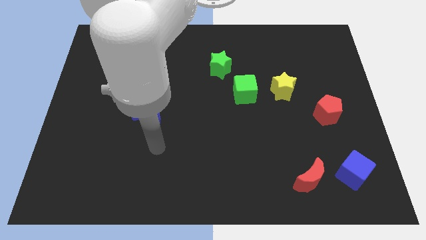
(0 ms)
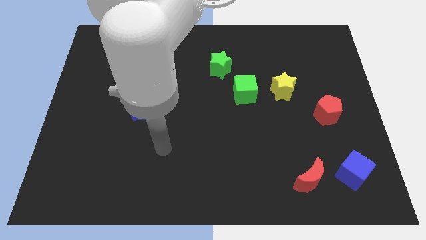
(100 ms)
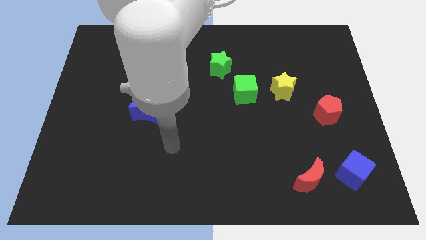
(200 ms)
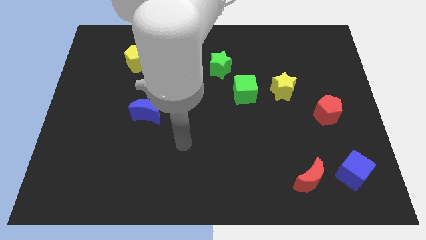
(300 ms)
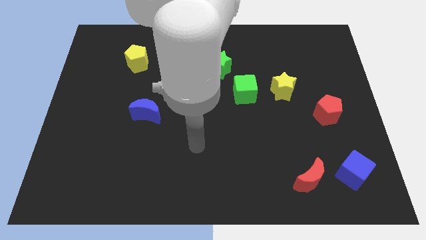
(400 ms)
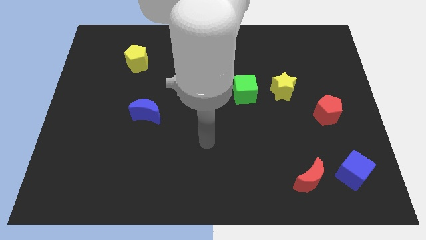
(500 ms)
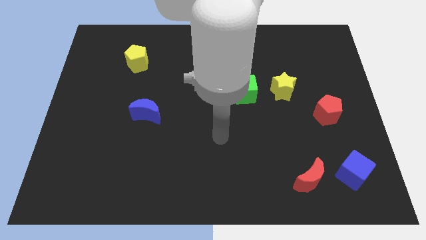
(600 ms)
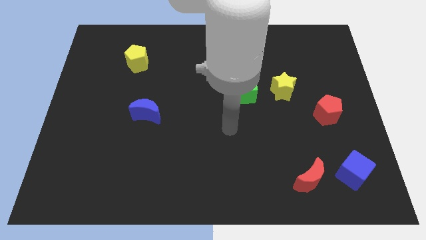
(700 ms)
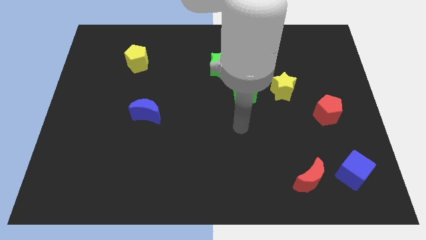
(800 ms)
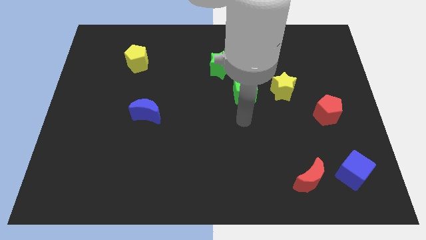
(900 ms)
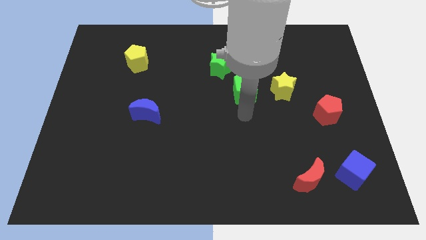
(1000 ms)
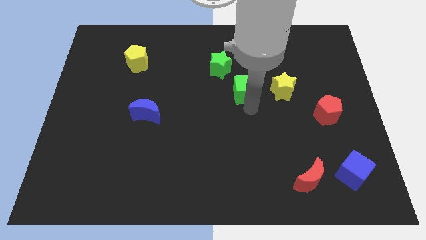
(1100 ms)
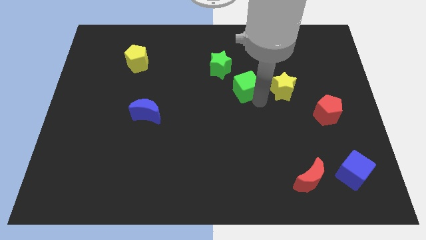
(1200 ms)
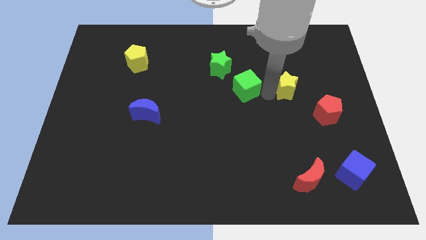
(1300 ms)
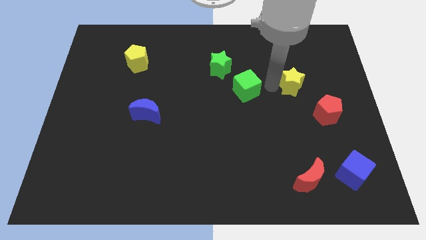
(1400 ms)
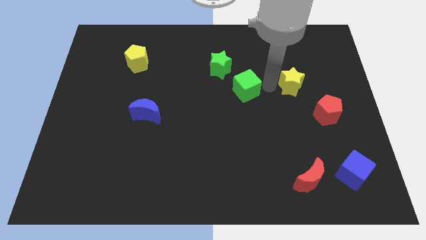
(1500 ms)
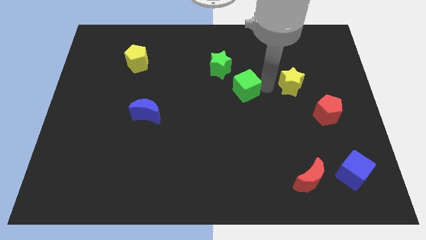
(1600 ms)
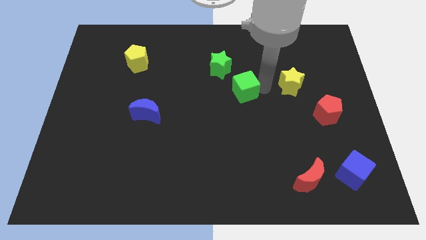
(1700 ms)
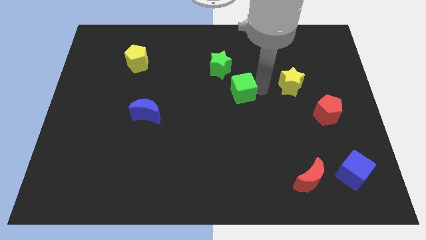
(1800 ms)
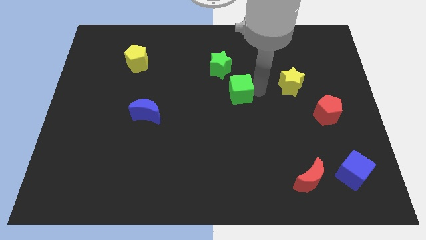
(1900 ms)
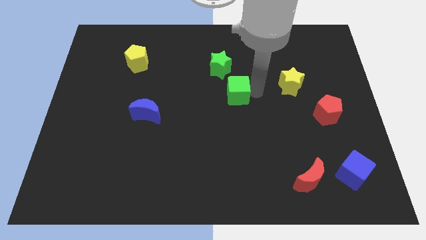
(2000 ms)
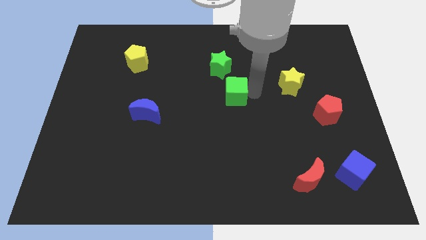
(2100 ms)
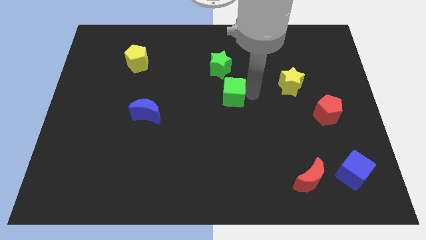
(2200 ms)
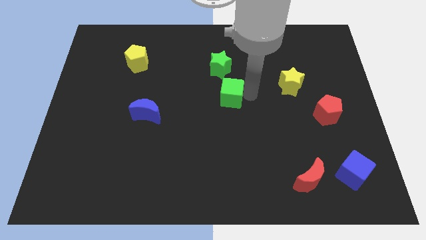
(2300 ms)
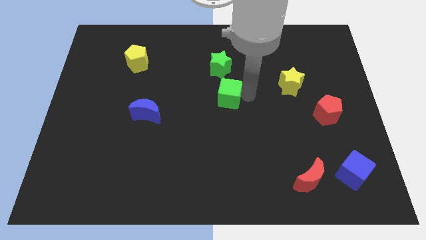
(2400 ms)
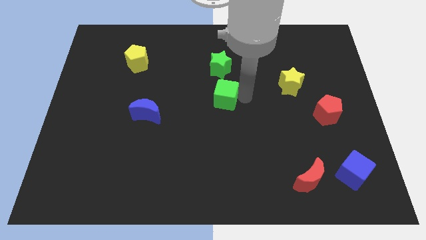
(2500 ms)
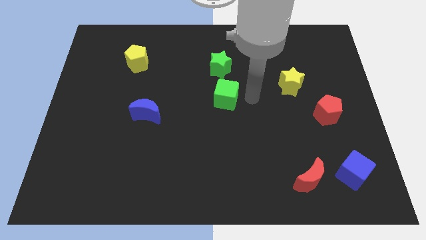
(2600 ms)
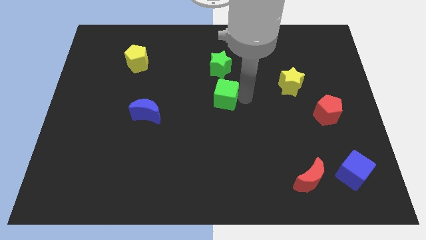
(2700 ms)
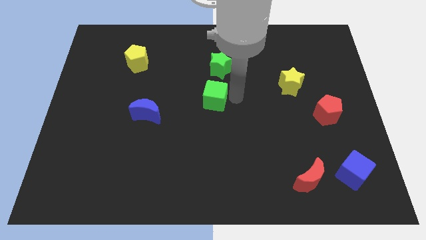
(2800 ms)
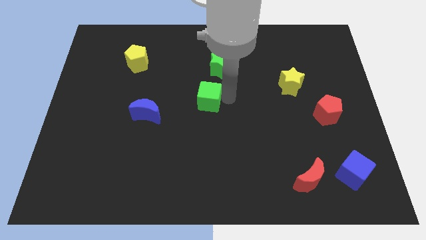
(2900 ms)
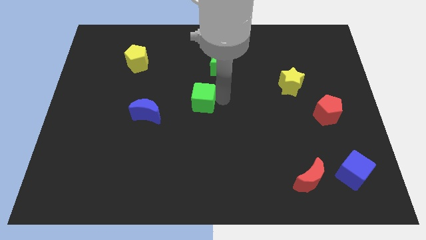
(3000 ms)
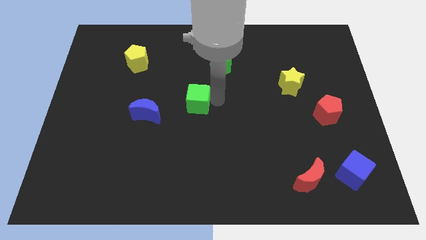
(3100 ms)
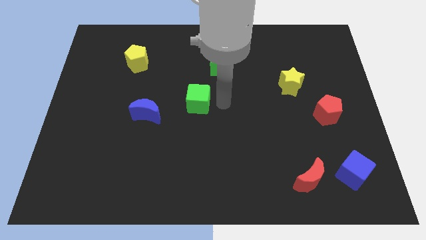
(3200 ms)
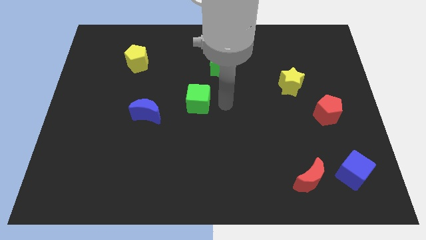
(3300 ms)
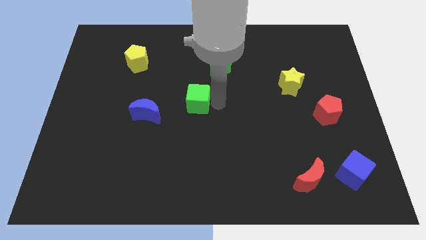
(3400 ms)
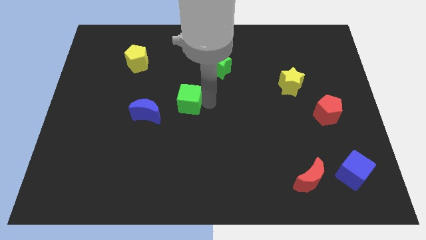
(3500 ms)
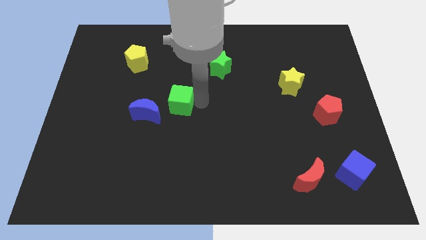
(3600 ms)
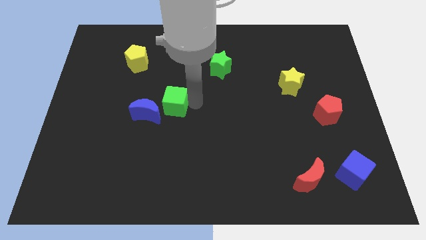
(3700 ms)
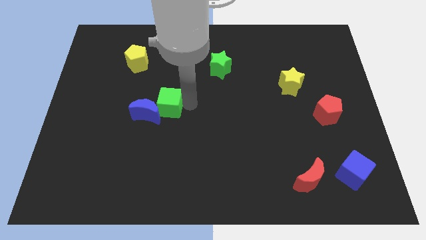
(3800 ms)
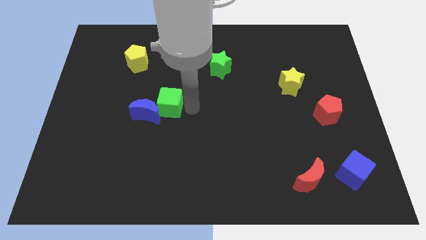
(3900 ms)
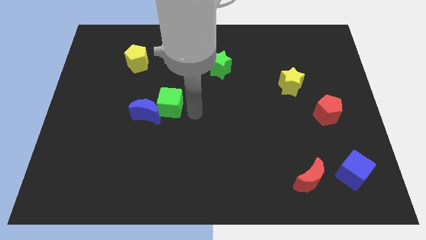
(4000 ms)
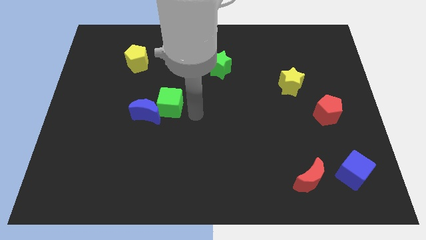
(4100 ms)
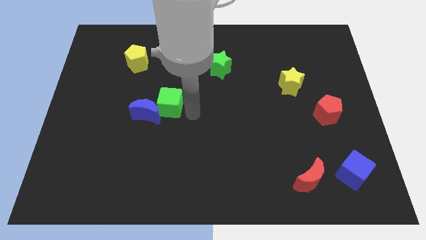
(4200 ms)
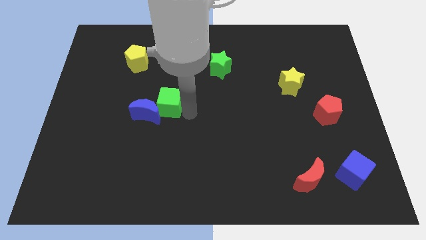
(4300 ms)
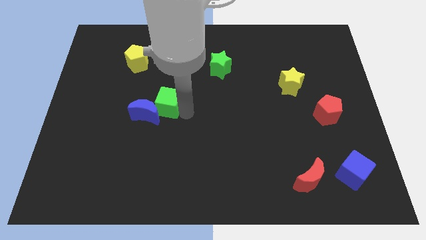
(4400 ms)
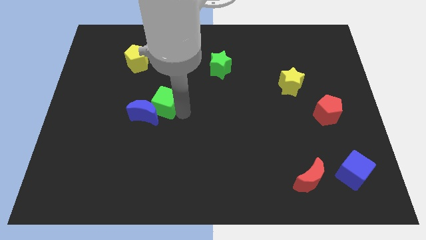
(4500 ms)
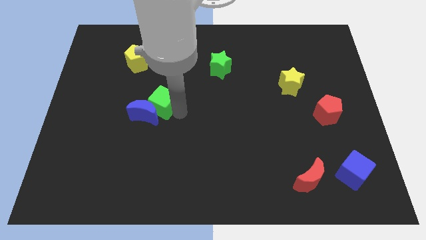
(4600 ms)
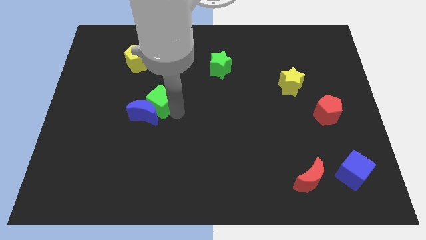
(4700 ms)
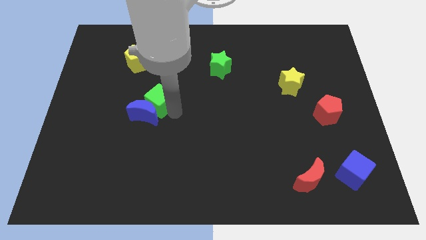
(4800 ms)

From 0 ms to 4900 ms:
move the green cube left

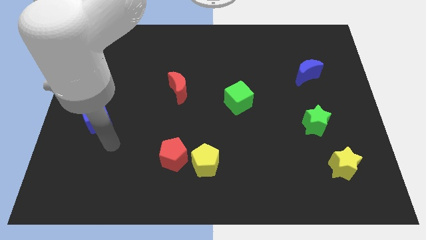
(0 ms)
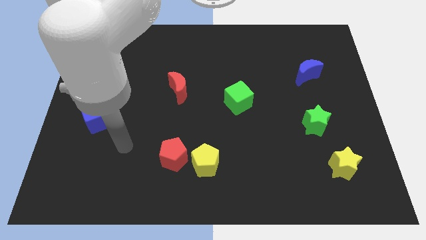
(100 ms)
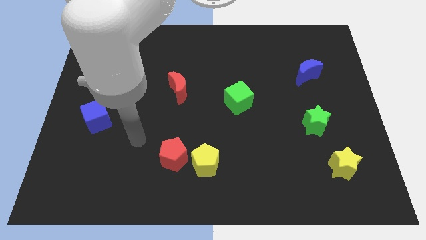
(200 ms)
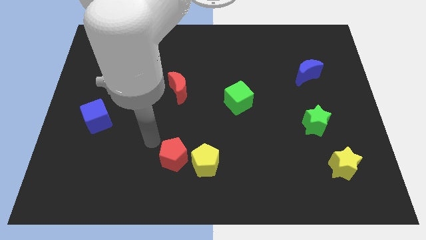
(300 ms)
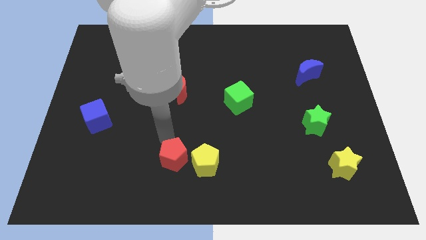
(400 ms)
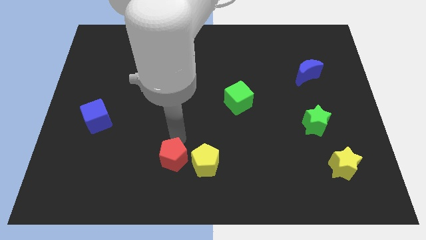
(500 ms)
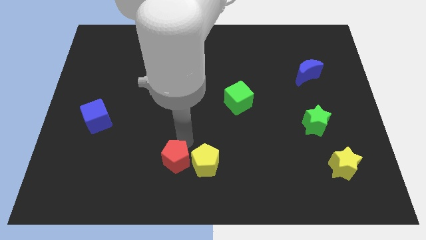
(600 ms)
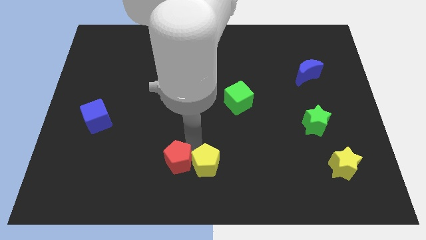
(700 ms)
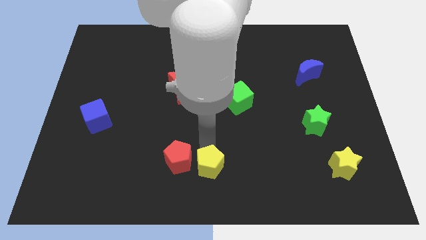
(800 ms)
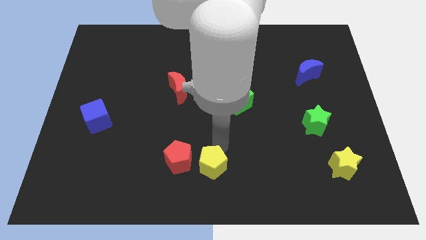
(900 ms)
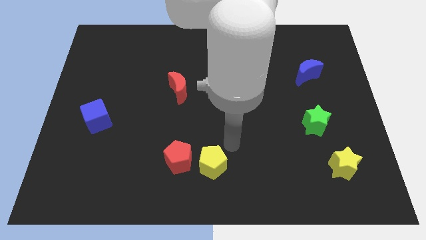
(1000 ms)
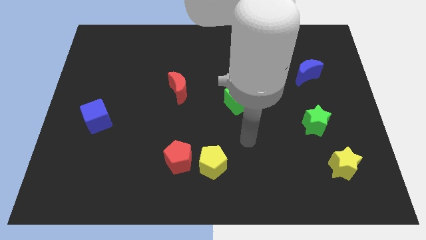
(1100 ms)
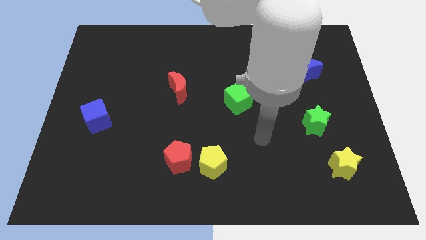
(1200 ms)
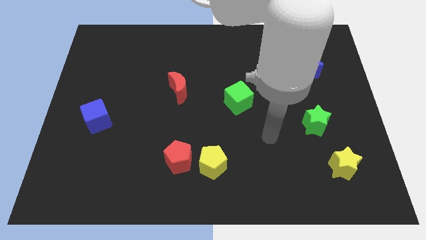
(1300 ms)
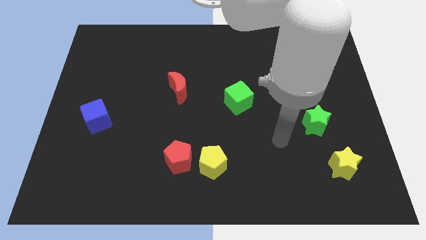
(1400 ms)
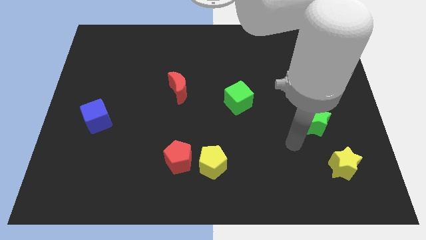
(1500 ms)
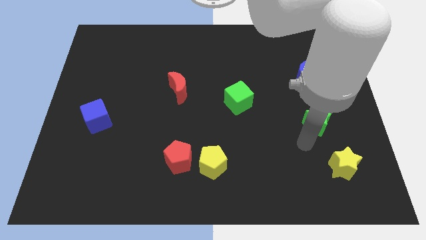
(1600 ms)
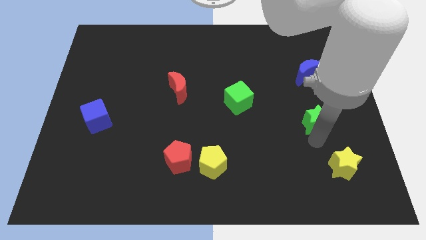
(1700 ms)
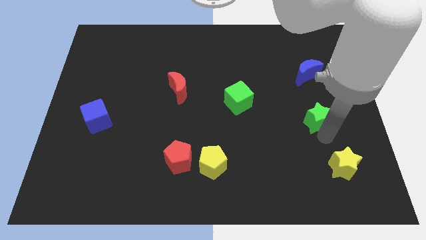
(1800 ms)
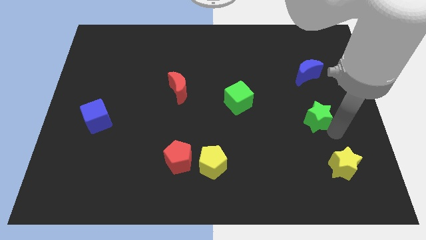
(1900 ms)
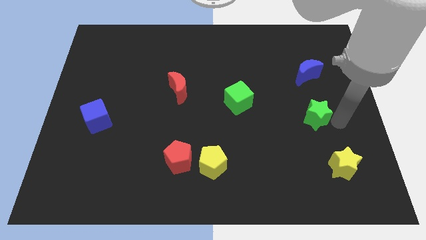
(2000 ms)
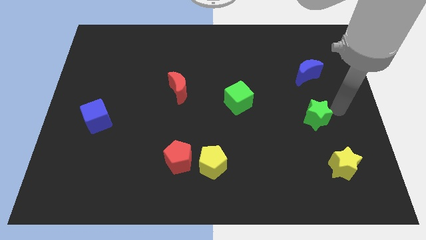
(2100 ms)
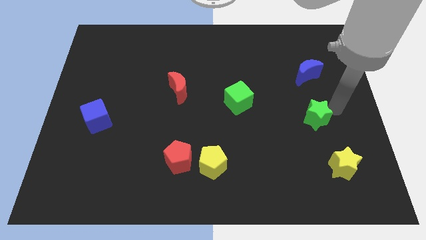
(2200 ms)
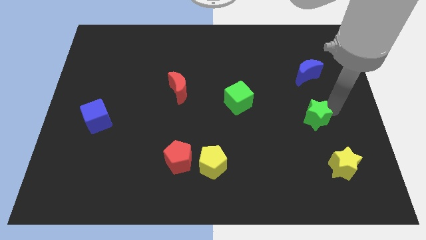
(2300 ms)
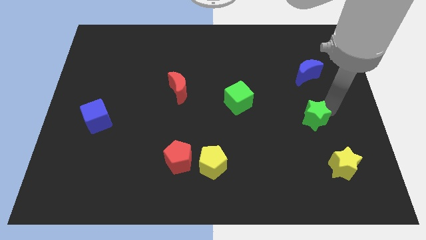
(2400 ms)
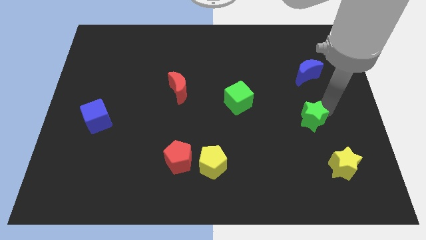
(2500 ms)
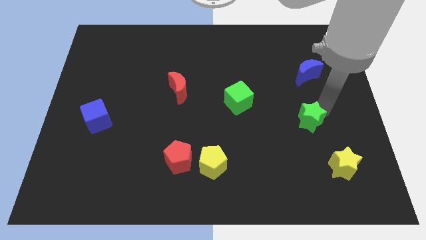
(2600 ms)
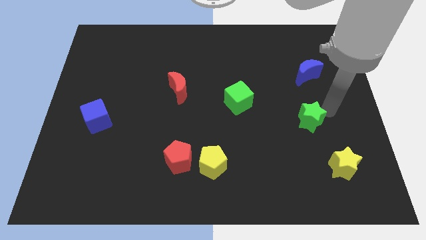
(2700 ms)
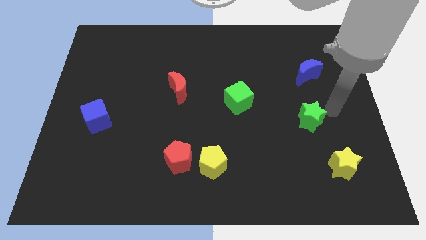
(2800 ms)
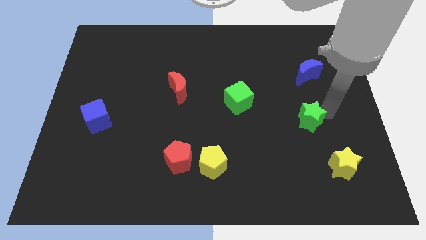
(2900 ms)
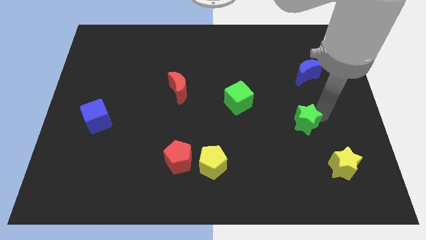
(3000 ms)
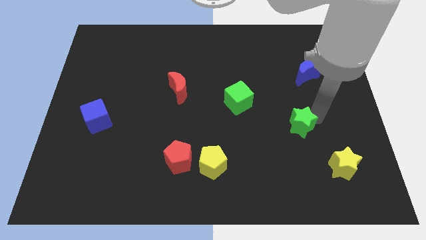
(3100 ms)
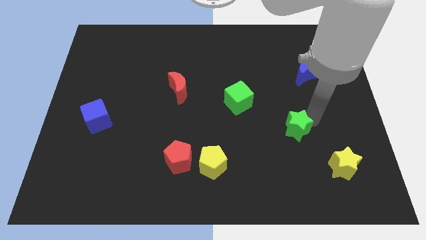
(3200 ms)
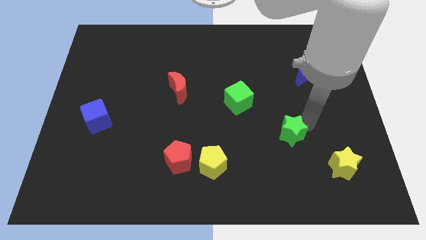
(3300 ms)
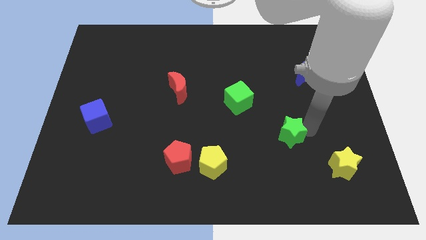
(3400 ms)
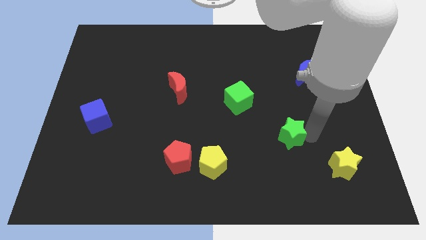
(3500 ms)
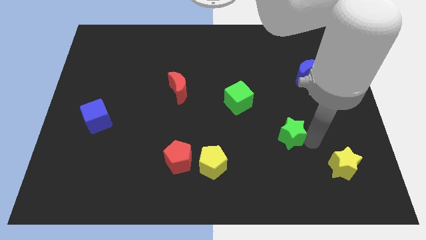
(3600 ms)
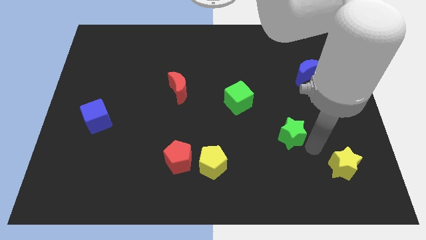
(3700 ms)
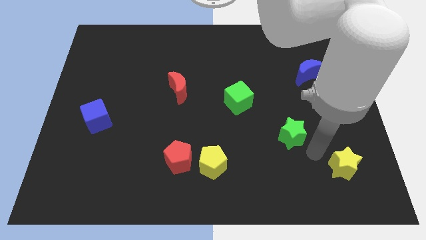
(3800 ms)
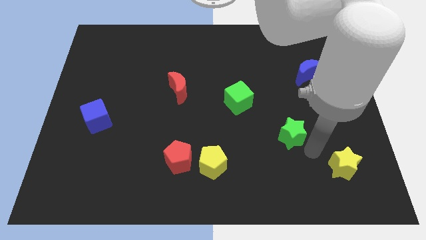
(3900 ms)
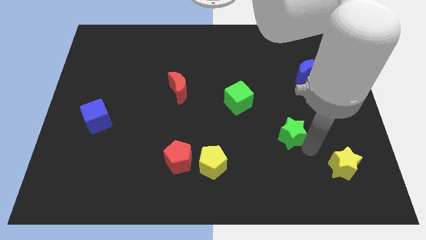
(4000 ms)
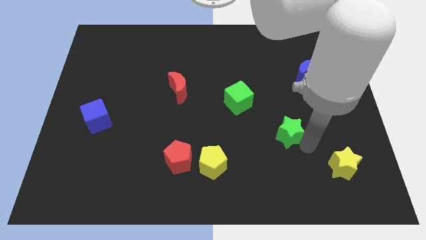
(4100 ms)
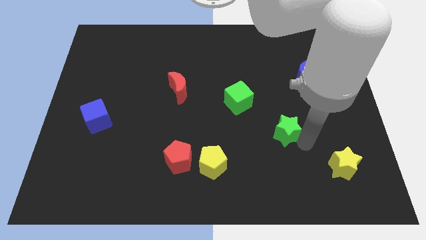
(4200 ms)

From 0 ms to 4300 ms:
move the green star a little to the left
